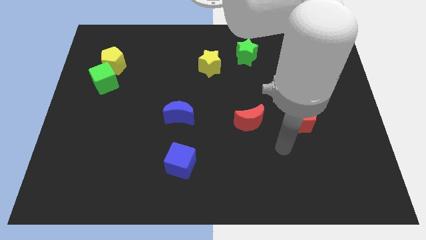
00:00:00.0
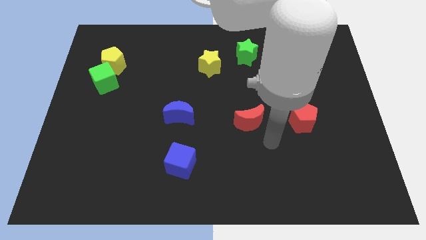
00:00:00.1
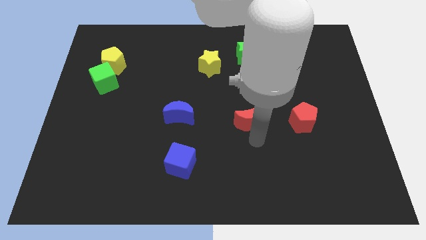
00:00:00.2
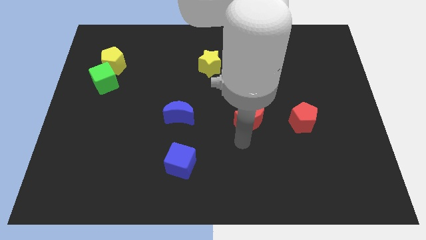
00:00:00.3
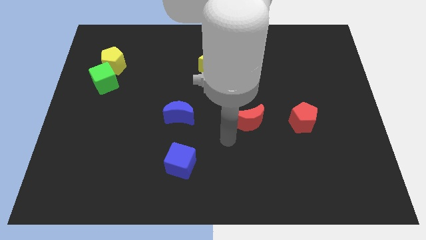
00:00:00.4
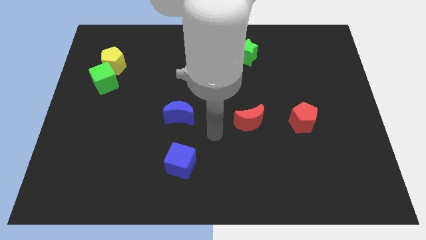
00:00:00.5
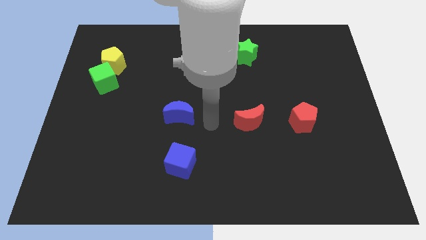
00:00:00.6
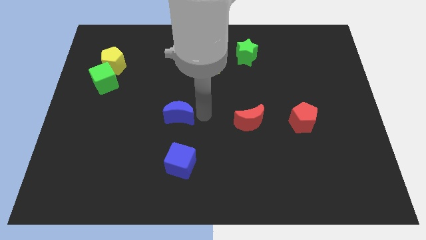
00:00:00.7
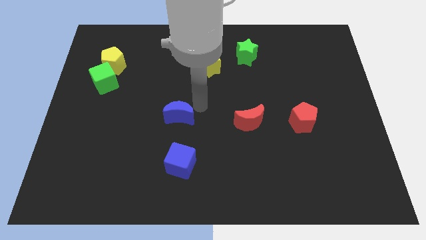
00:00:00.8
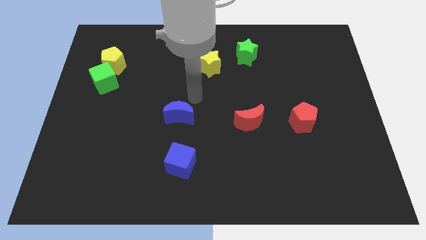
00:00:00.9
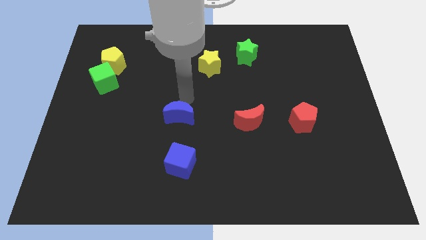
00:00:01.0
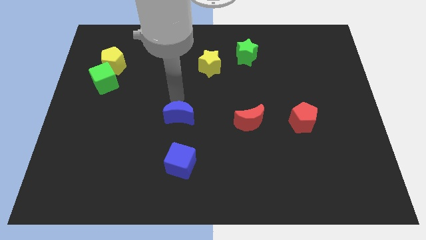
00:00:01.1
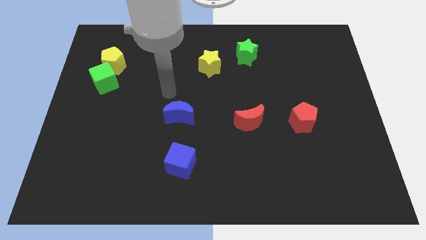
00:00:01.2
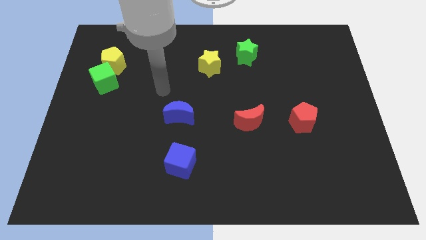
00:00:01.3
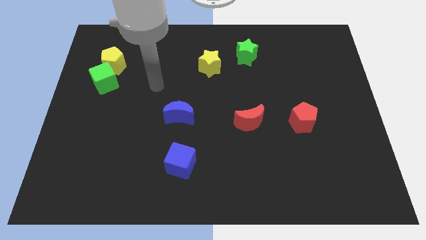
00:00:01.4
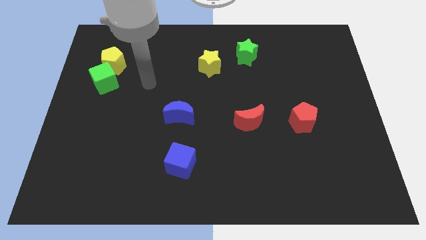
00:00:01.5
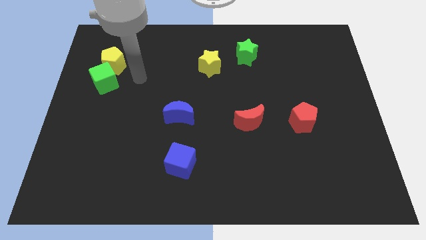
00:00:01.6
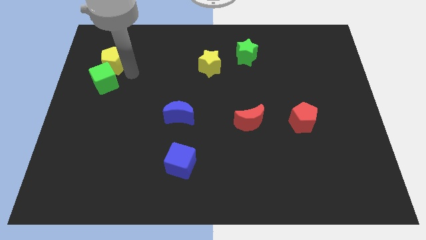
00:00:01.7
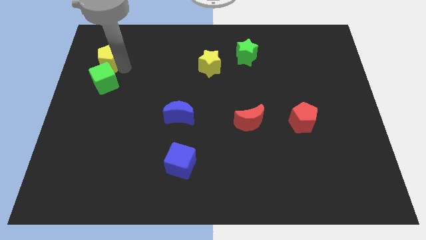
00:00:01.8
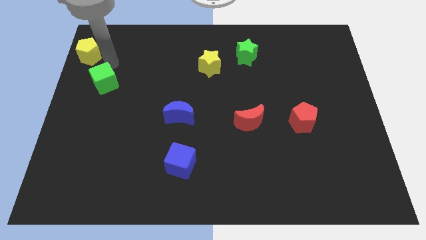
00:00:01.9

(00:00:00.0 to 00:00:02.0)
pull the green cube apart from the yellow pentagon

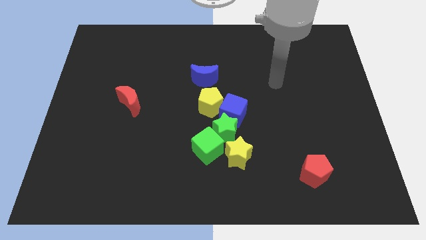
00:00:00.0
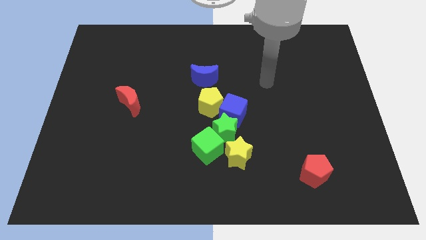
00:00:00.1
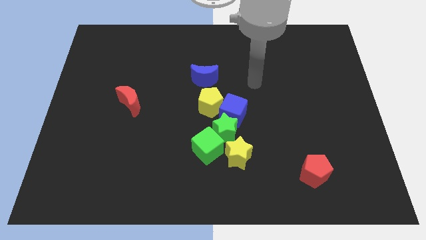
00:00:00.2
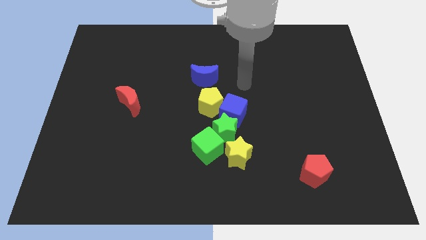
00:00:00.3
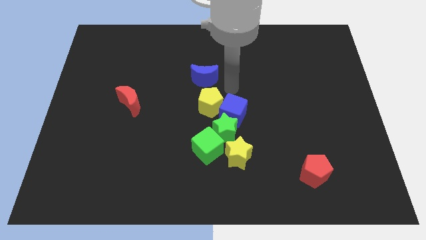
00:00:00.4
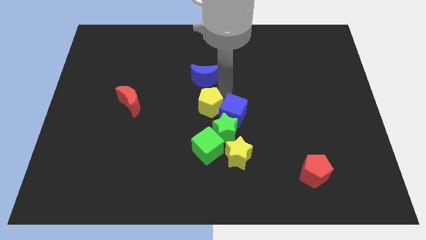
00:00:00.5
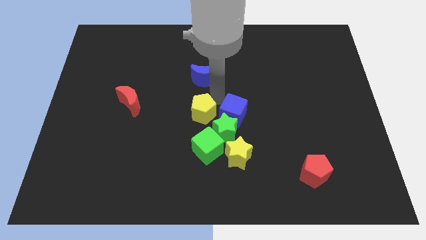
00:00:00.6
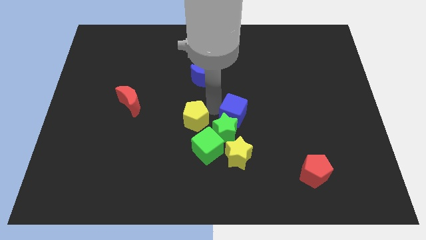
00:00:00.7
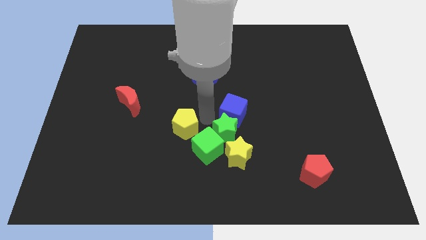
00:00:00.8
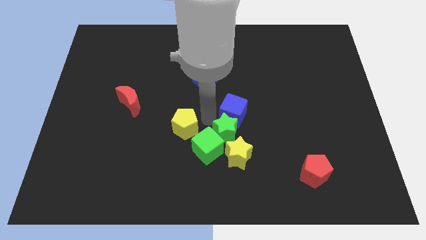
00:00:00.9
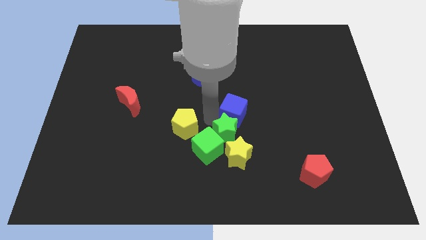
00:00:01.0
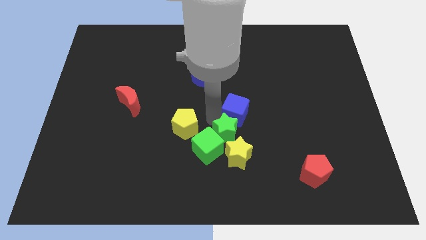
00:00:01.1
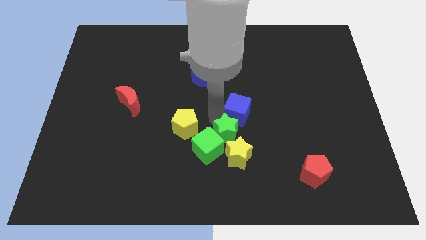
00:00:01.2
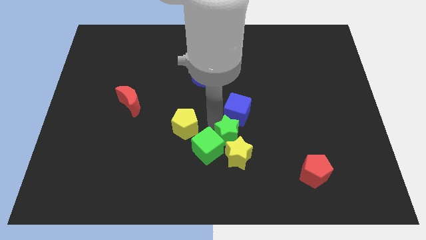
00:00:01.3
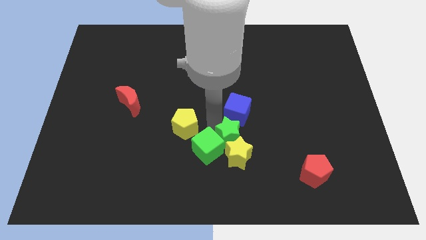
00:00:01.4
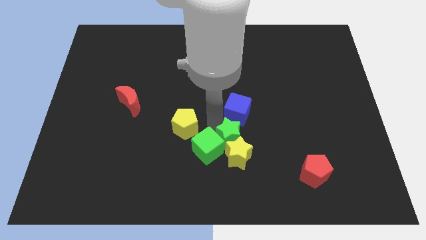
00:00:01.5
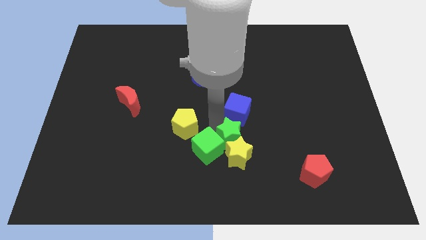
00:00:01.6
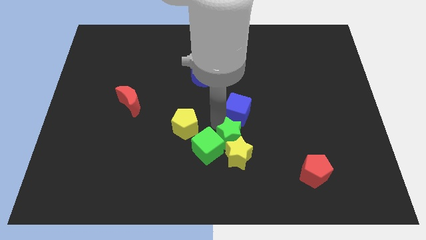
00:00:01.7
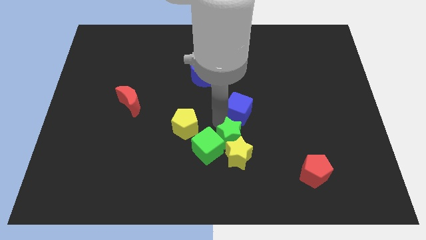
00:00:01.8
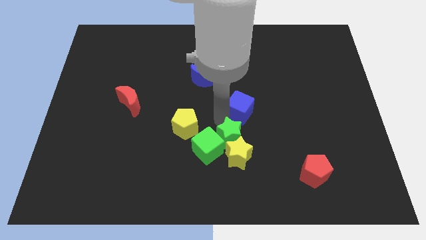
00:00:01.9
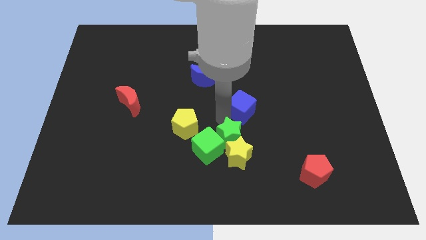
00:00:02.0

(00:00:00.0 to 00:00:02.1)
separate the blue cube from the green star and yellow pentagon

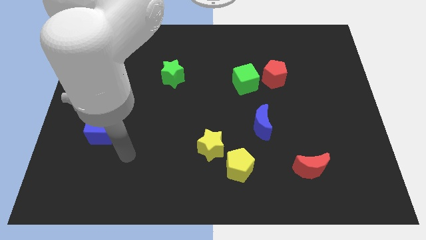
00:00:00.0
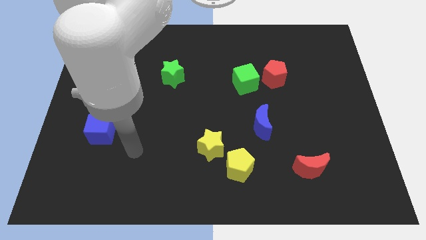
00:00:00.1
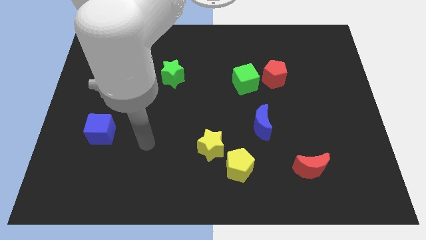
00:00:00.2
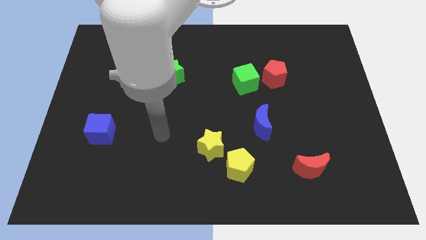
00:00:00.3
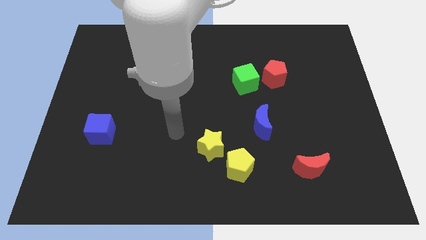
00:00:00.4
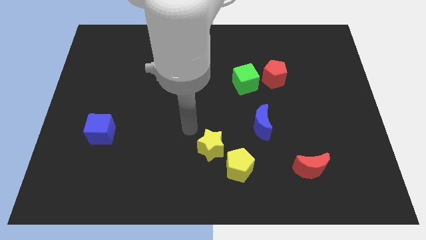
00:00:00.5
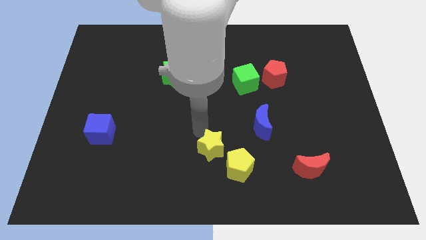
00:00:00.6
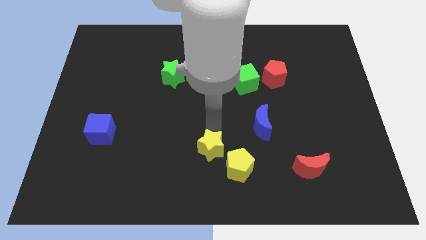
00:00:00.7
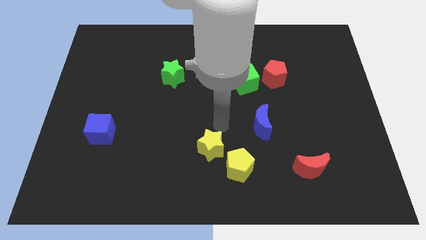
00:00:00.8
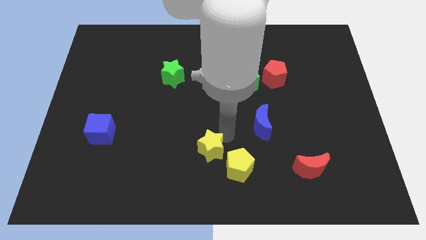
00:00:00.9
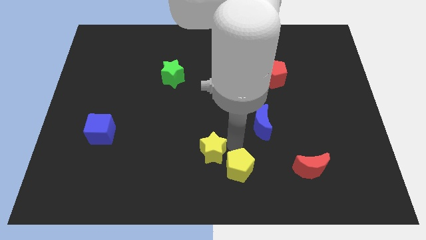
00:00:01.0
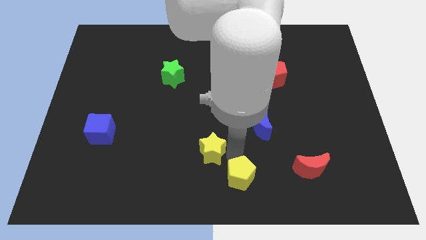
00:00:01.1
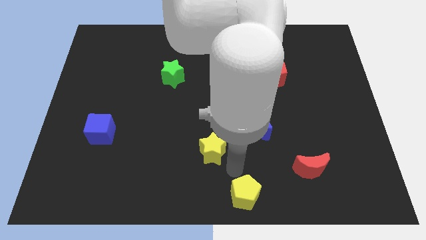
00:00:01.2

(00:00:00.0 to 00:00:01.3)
move the yellow star away from the yellow pentagon

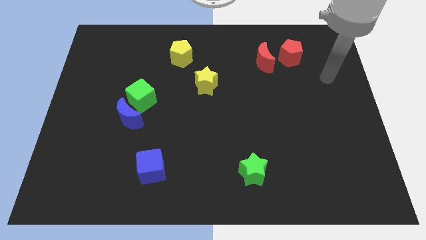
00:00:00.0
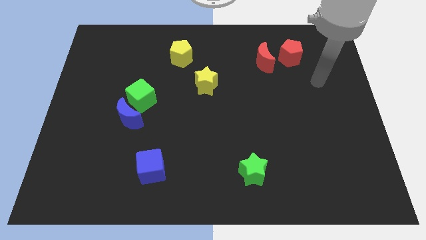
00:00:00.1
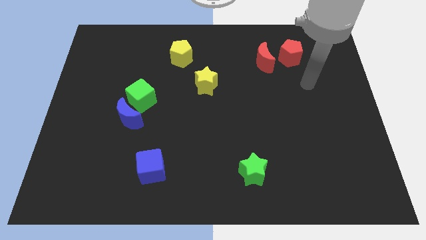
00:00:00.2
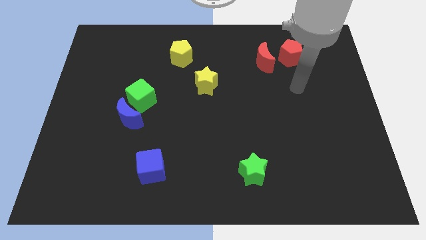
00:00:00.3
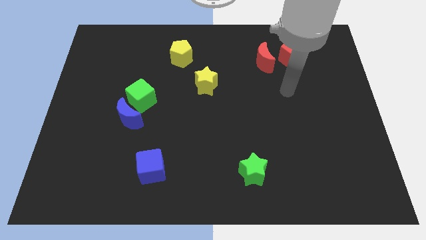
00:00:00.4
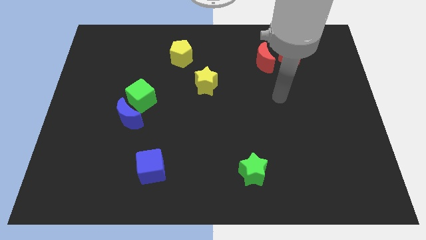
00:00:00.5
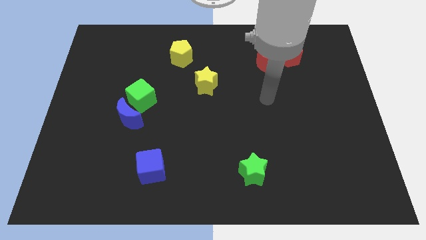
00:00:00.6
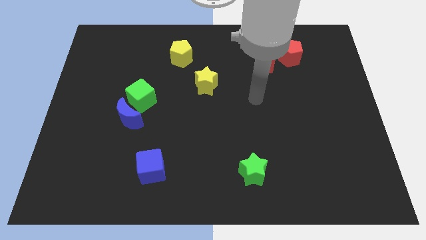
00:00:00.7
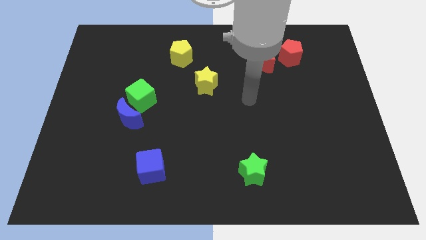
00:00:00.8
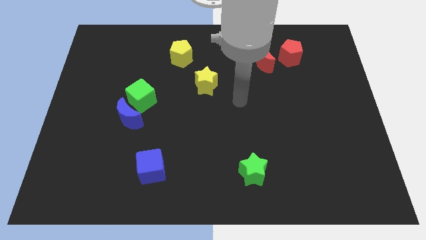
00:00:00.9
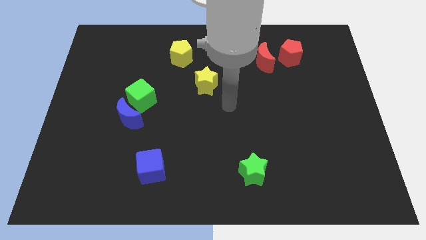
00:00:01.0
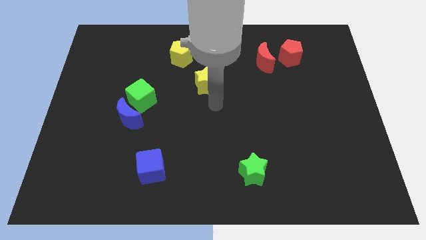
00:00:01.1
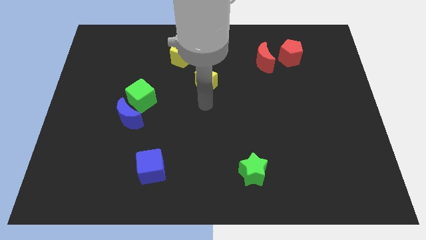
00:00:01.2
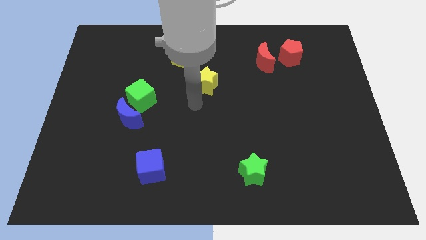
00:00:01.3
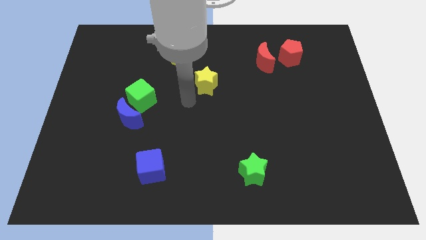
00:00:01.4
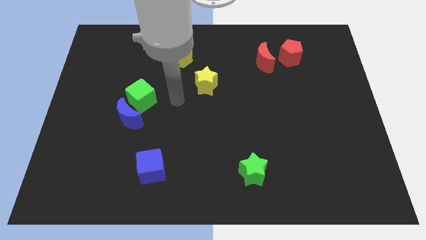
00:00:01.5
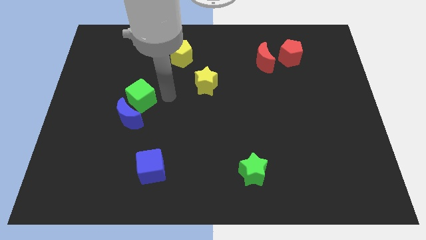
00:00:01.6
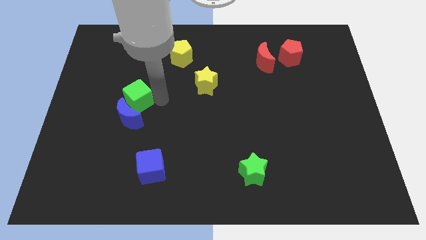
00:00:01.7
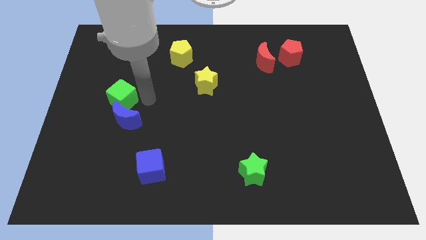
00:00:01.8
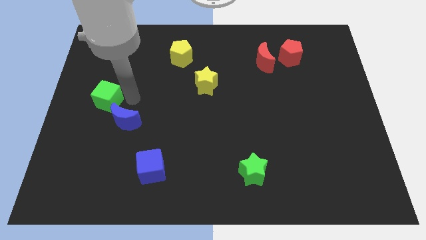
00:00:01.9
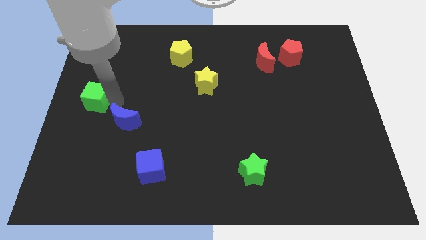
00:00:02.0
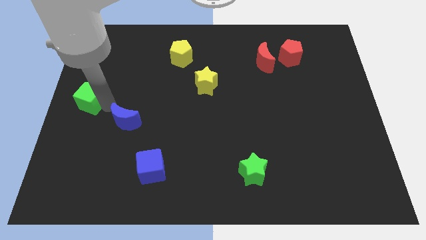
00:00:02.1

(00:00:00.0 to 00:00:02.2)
pull the blue moon apart from the green cube

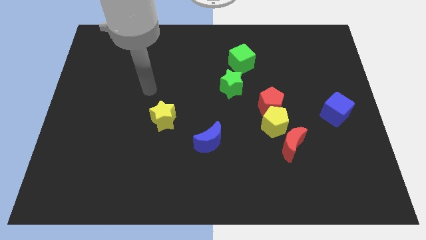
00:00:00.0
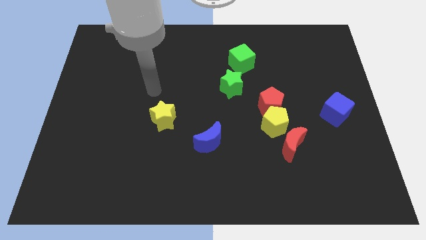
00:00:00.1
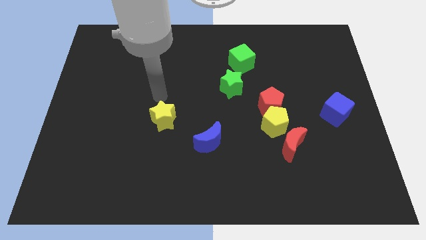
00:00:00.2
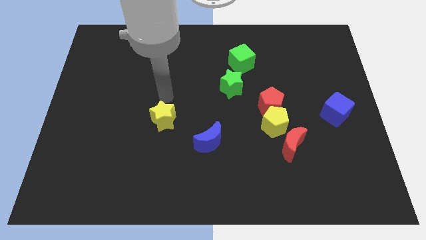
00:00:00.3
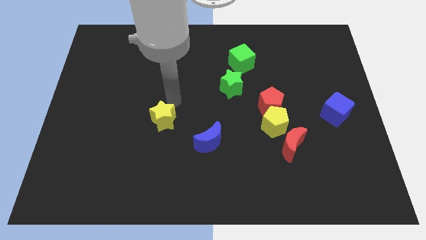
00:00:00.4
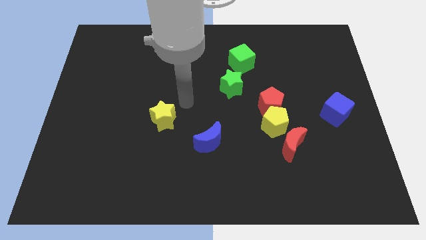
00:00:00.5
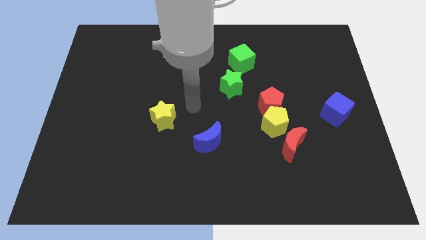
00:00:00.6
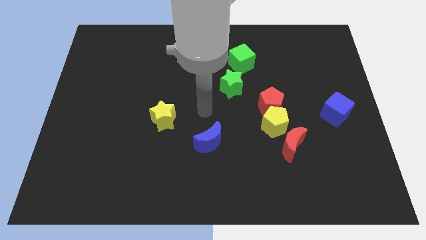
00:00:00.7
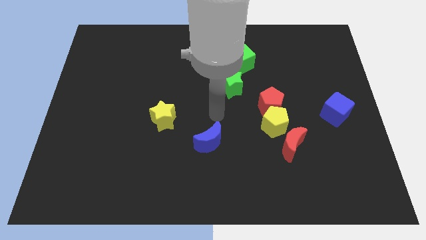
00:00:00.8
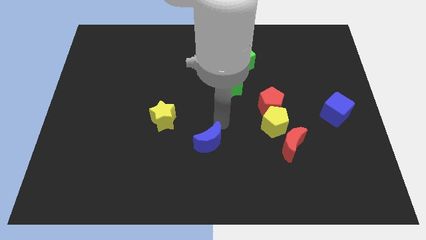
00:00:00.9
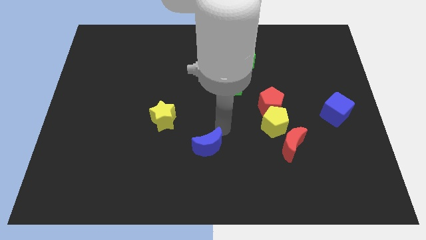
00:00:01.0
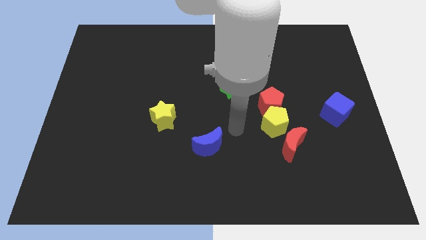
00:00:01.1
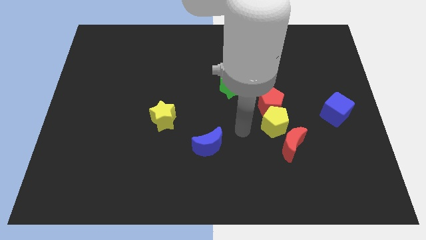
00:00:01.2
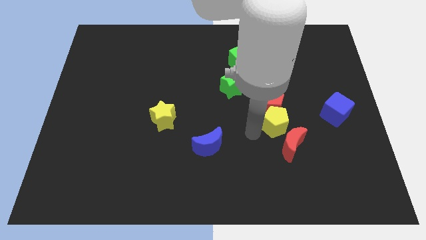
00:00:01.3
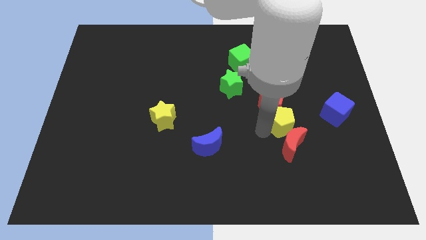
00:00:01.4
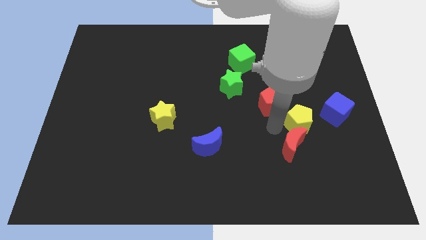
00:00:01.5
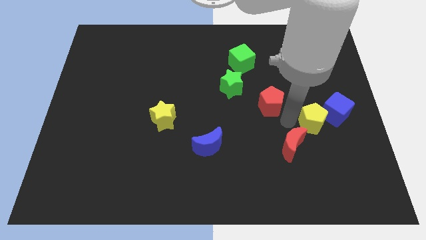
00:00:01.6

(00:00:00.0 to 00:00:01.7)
move the red pentagon away from the yellow pentagon

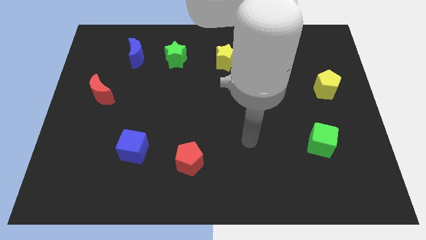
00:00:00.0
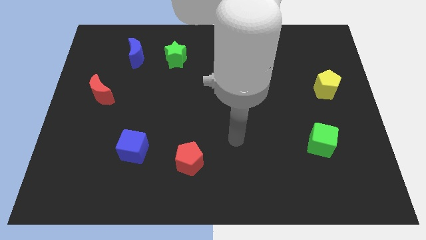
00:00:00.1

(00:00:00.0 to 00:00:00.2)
pull the blue moon apart from the green star
